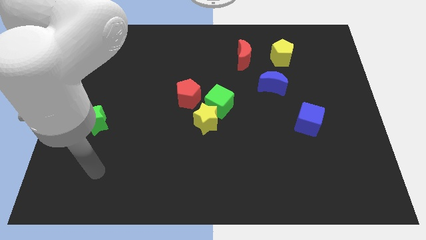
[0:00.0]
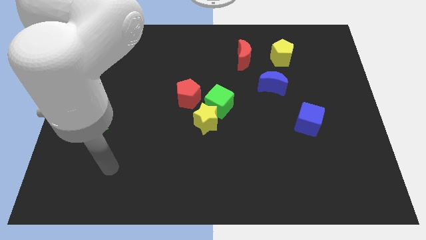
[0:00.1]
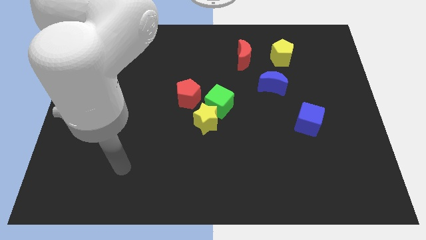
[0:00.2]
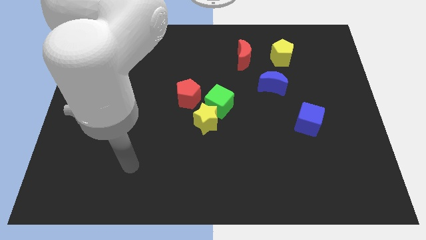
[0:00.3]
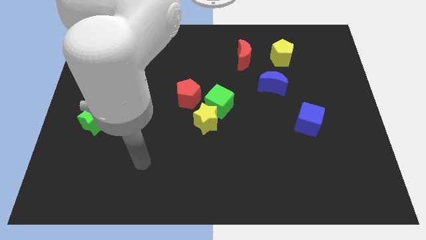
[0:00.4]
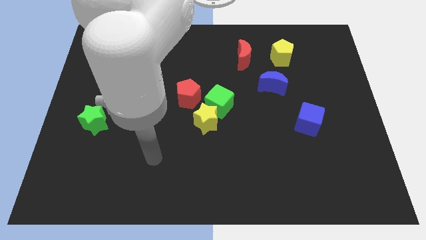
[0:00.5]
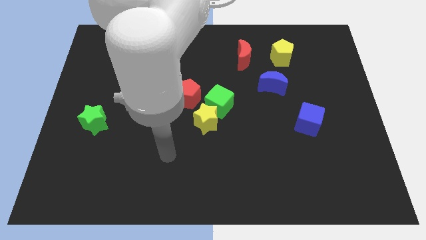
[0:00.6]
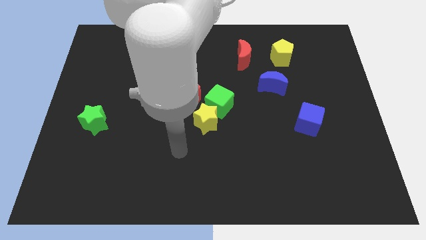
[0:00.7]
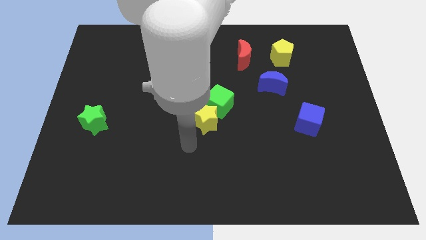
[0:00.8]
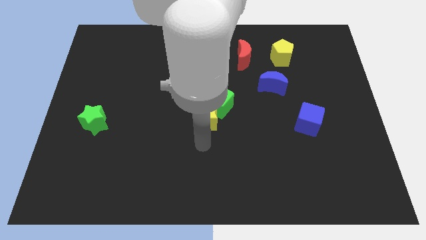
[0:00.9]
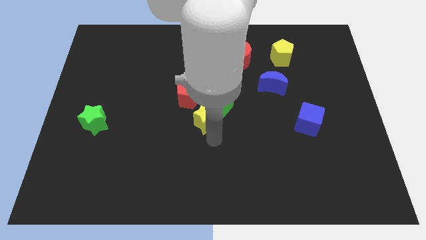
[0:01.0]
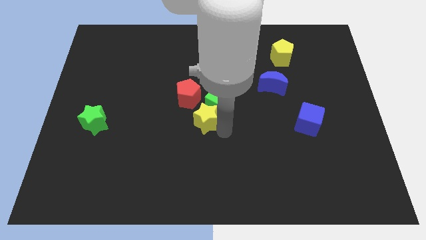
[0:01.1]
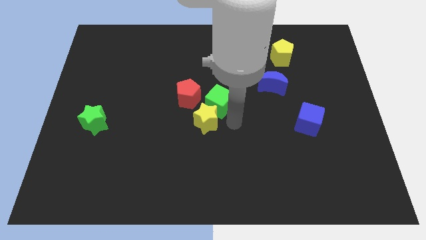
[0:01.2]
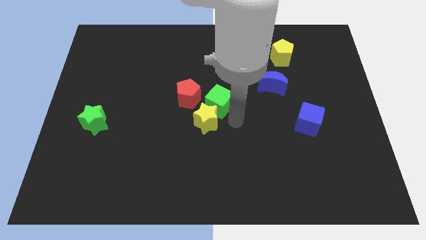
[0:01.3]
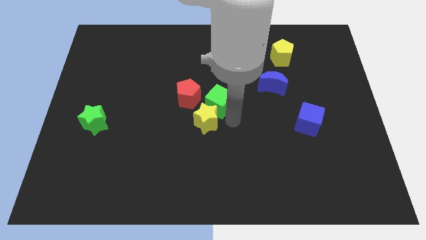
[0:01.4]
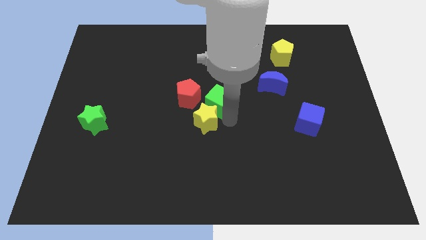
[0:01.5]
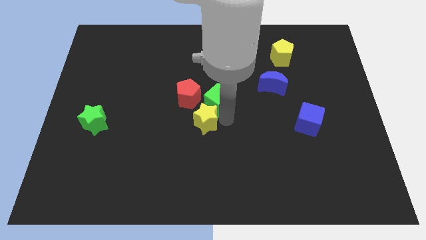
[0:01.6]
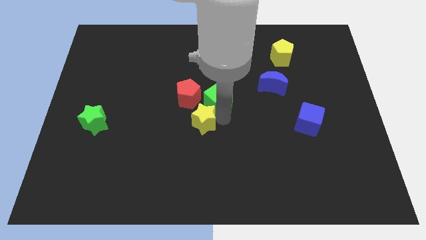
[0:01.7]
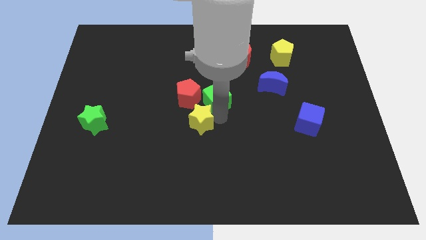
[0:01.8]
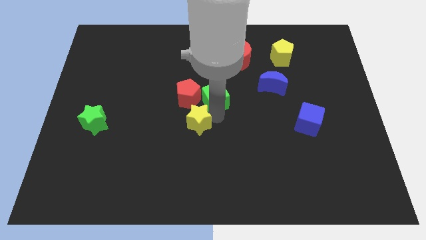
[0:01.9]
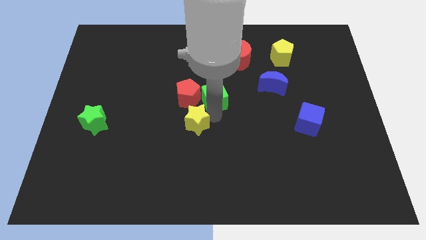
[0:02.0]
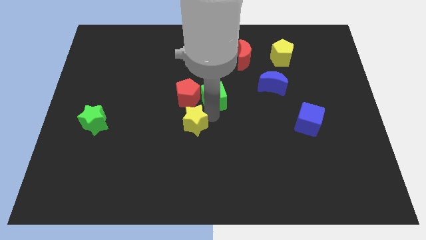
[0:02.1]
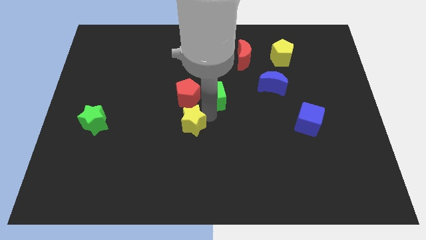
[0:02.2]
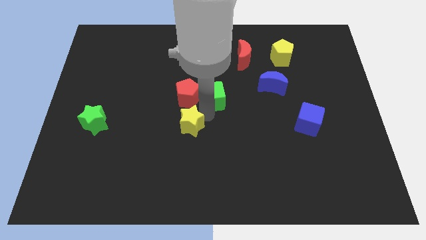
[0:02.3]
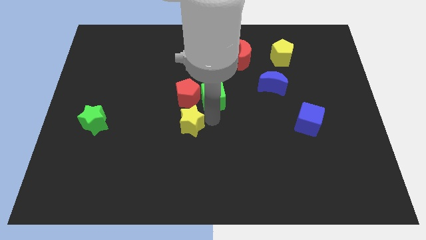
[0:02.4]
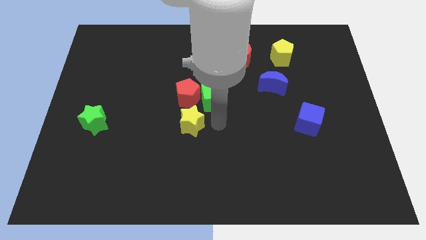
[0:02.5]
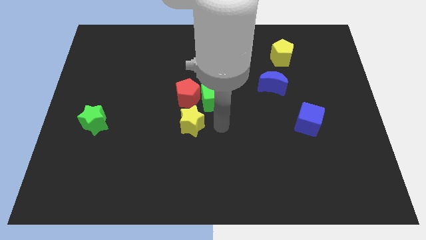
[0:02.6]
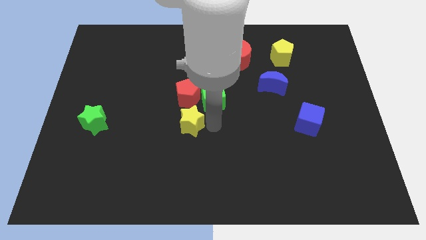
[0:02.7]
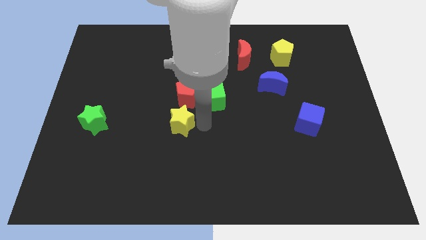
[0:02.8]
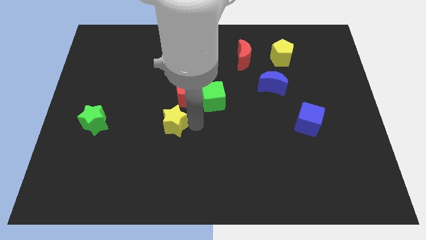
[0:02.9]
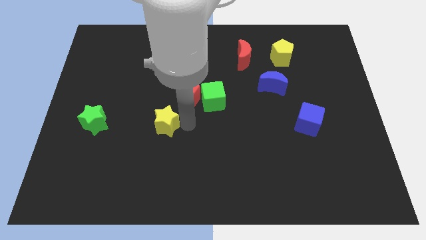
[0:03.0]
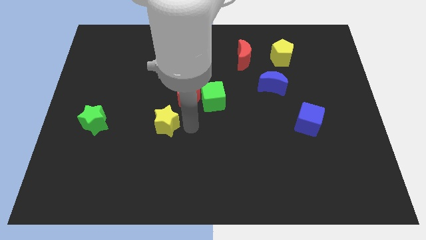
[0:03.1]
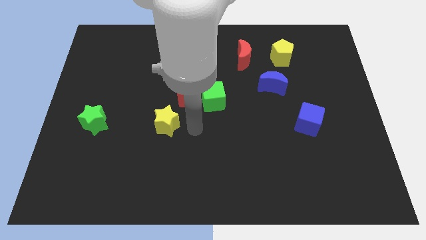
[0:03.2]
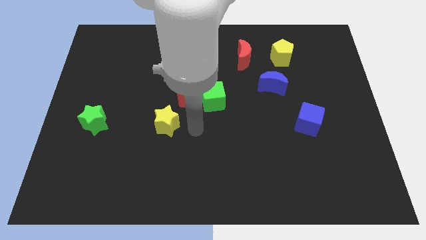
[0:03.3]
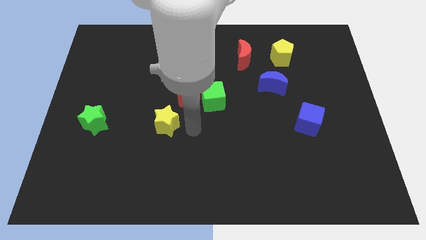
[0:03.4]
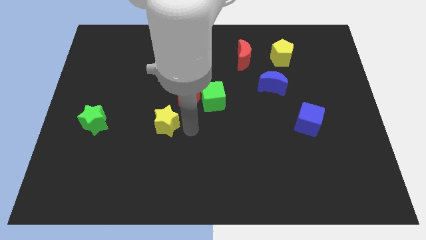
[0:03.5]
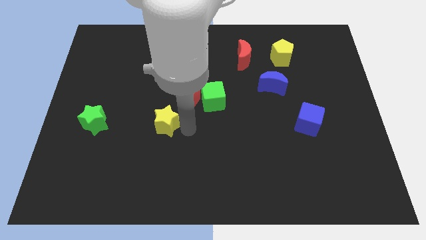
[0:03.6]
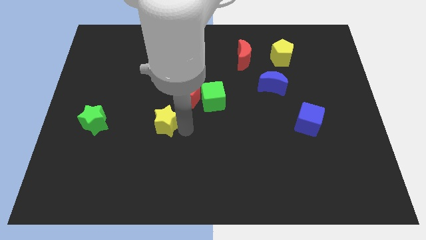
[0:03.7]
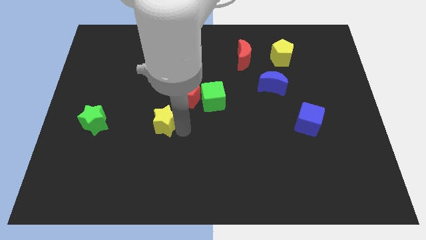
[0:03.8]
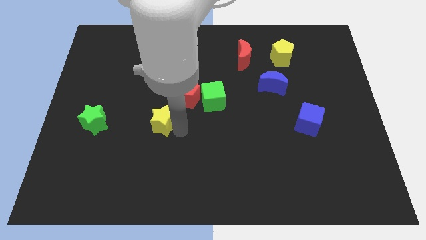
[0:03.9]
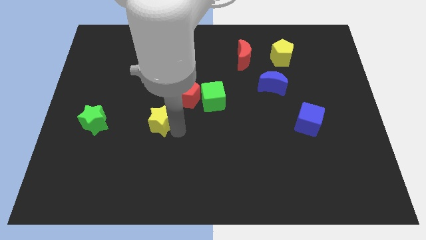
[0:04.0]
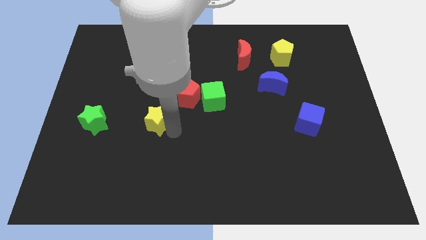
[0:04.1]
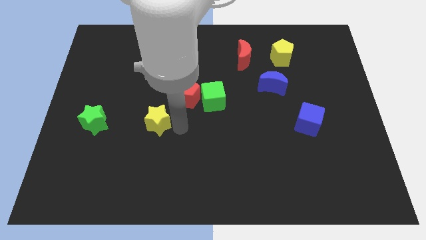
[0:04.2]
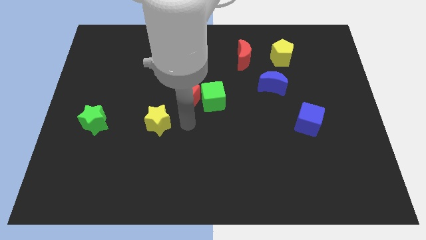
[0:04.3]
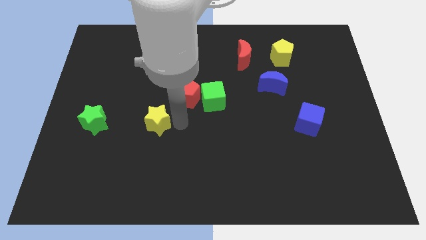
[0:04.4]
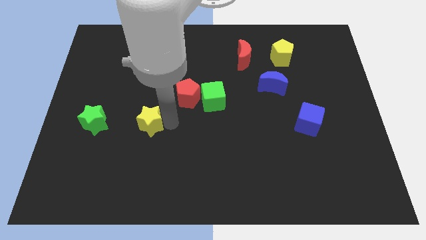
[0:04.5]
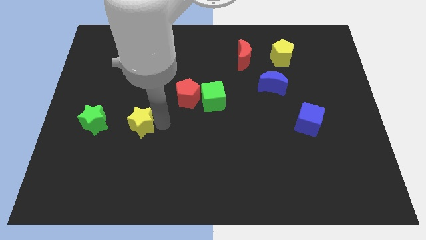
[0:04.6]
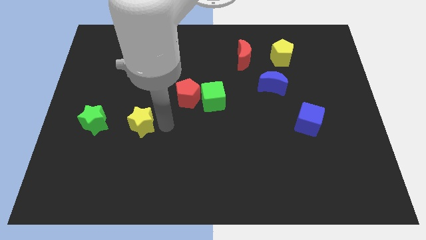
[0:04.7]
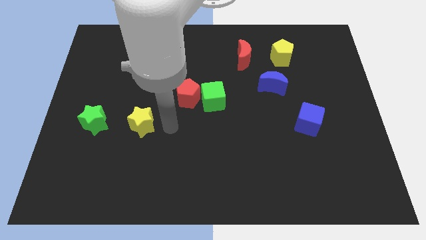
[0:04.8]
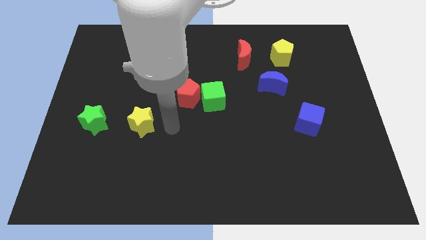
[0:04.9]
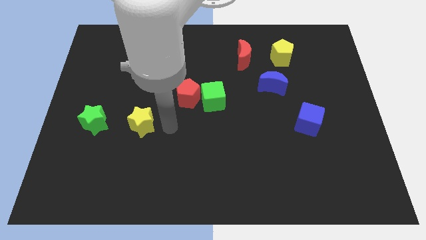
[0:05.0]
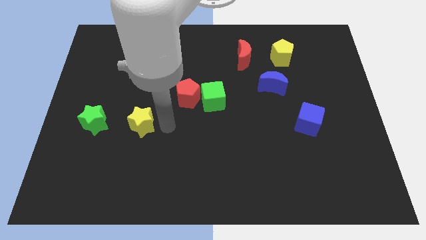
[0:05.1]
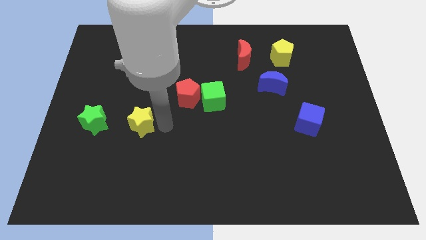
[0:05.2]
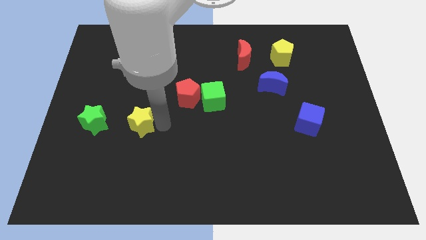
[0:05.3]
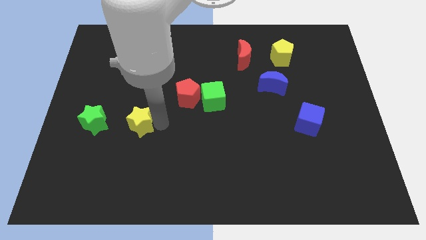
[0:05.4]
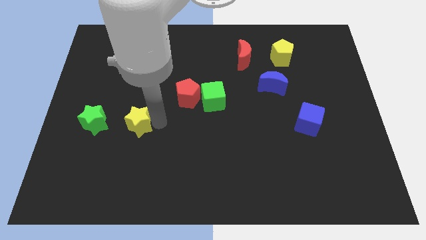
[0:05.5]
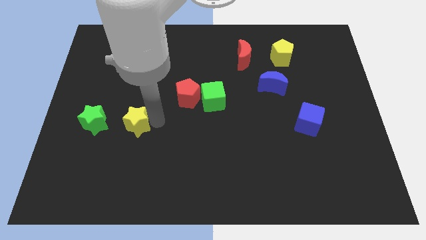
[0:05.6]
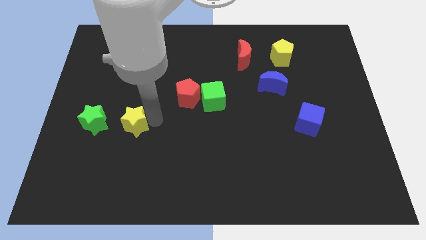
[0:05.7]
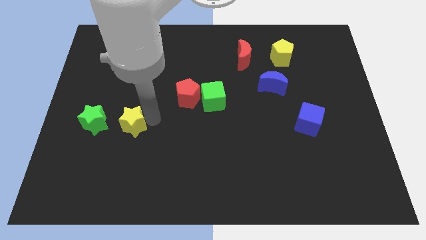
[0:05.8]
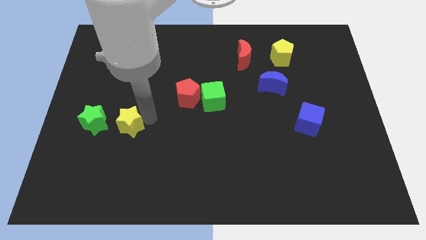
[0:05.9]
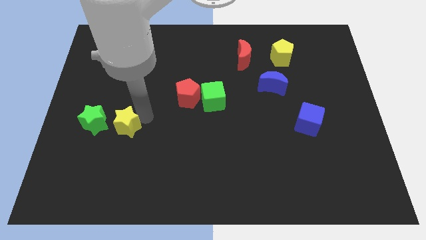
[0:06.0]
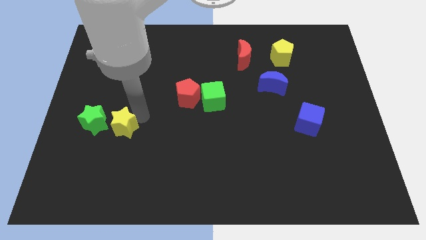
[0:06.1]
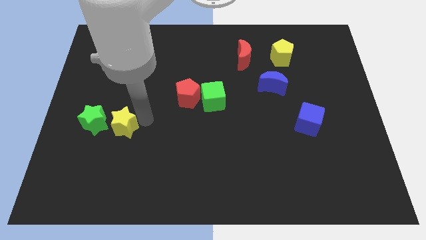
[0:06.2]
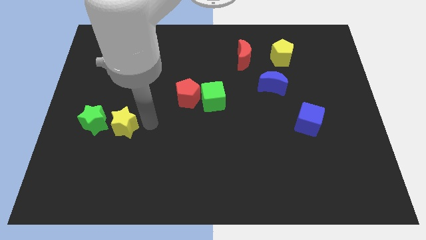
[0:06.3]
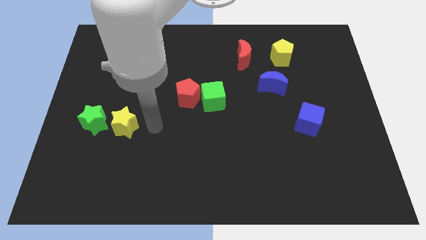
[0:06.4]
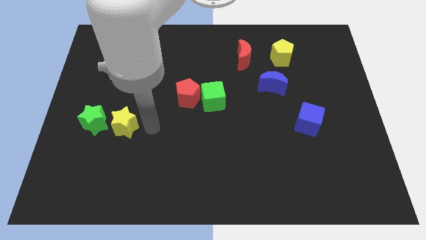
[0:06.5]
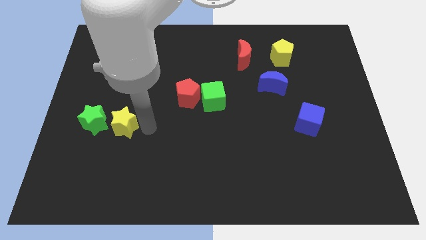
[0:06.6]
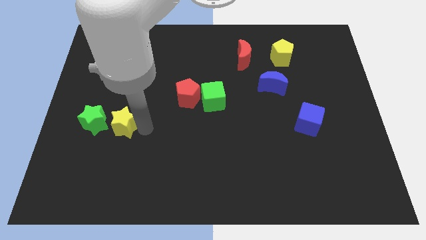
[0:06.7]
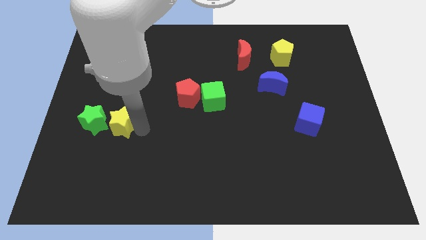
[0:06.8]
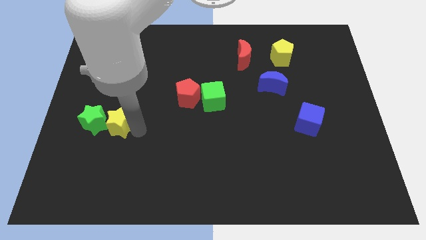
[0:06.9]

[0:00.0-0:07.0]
put the yellow star to the green star
